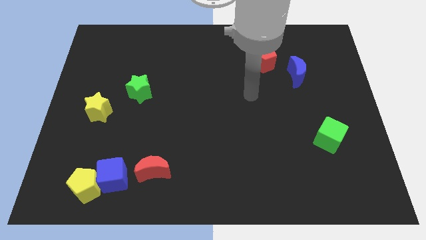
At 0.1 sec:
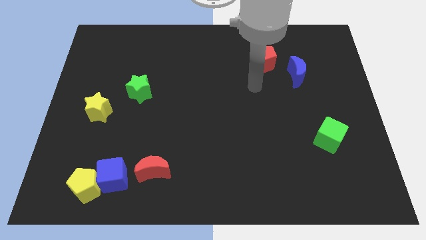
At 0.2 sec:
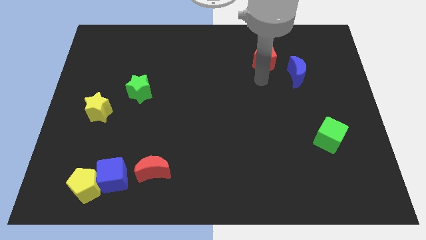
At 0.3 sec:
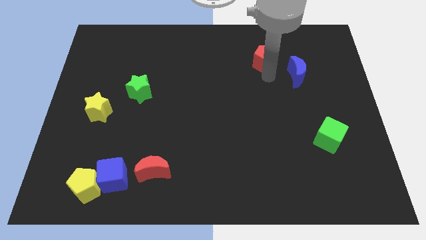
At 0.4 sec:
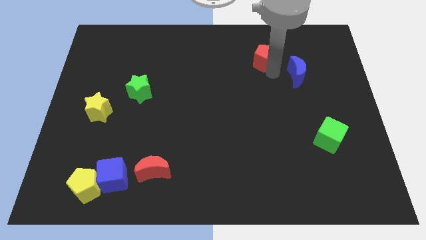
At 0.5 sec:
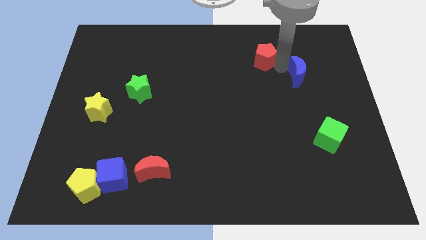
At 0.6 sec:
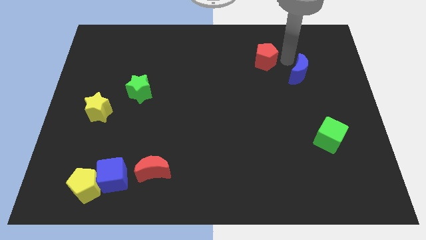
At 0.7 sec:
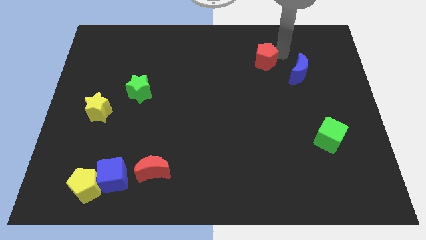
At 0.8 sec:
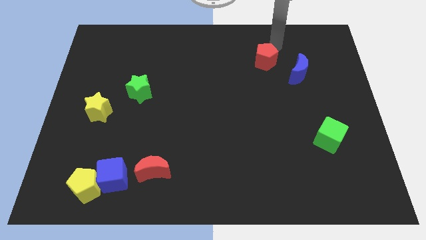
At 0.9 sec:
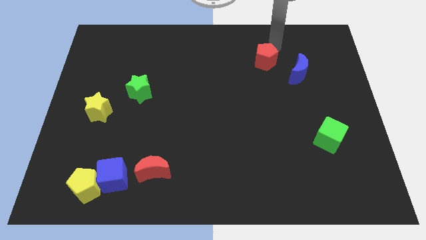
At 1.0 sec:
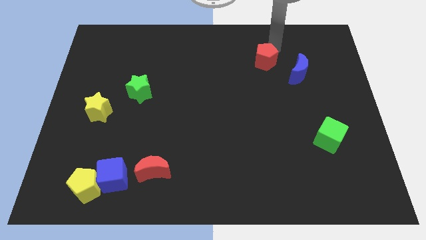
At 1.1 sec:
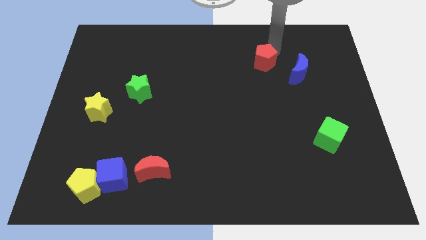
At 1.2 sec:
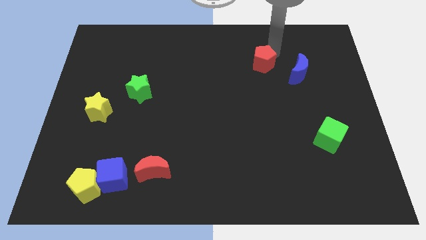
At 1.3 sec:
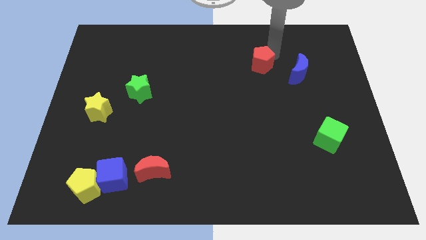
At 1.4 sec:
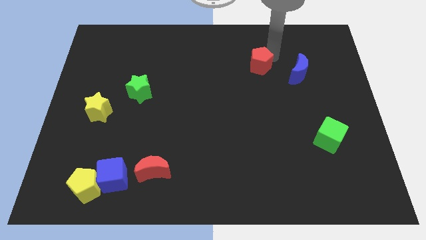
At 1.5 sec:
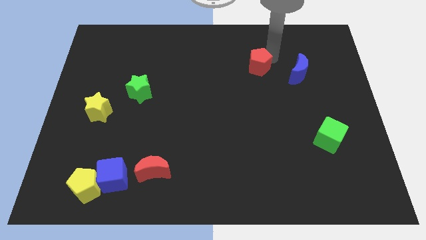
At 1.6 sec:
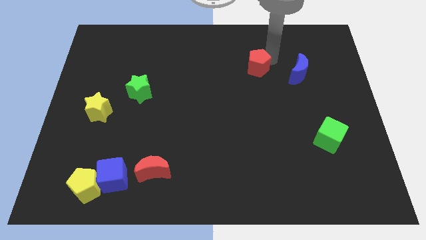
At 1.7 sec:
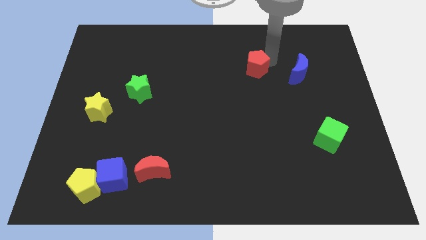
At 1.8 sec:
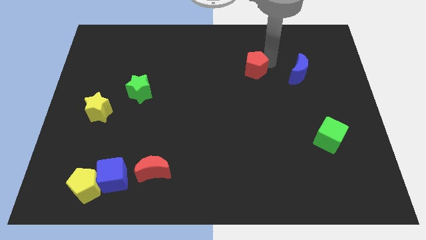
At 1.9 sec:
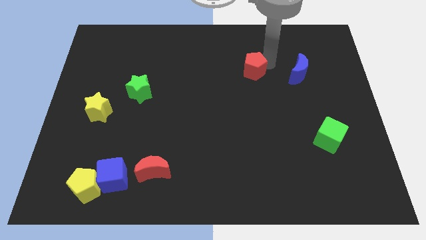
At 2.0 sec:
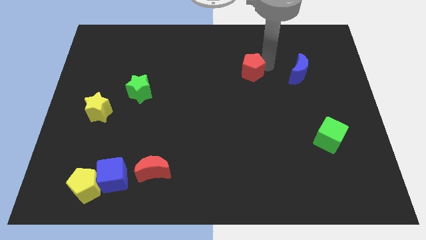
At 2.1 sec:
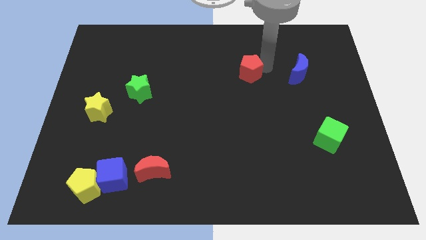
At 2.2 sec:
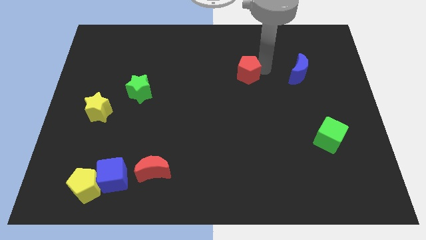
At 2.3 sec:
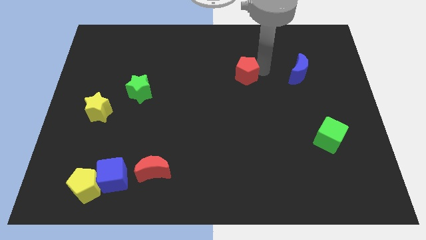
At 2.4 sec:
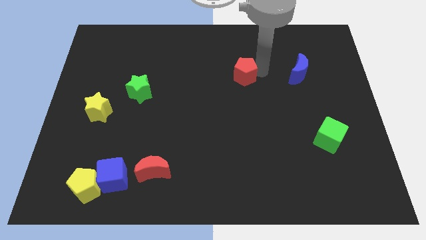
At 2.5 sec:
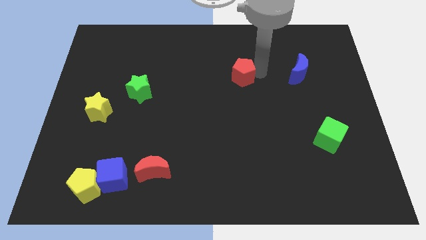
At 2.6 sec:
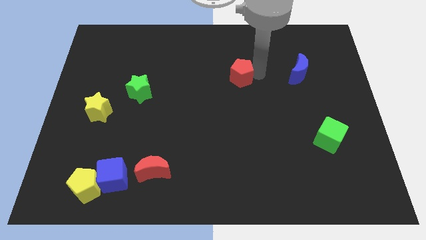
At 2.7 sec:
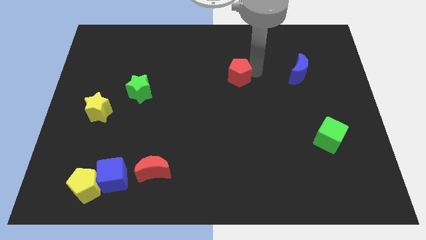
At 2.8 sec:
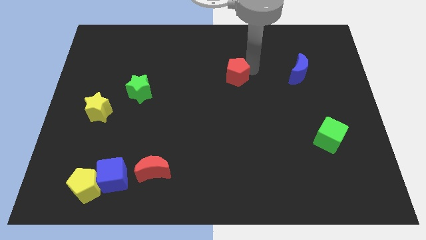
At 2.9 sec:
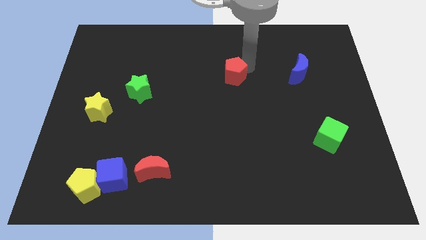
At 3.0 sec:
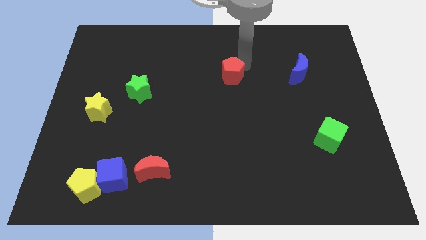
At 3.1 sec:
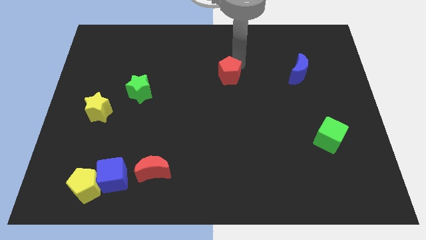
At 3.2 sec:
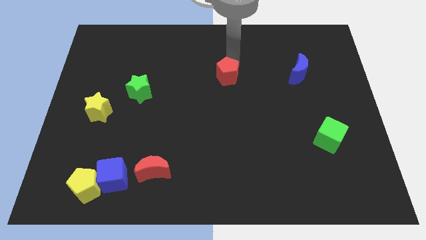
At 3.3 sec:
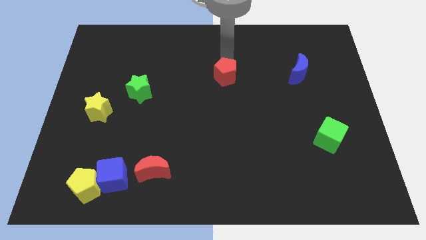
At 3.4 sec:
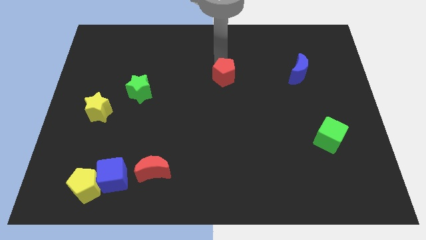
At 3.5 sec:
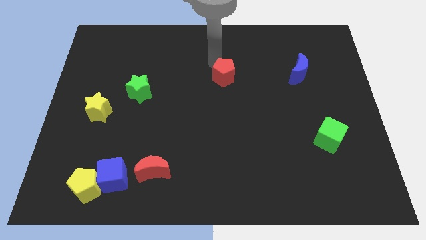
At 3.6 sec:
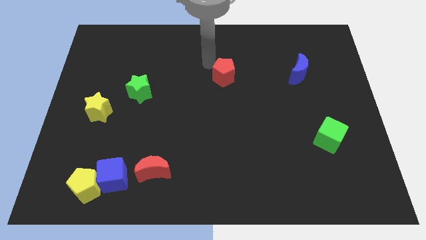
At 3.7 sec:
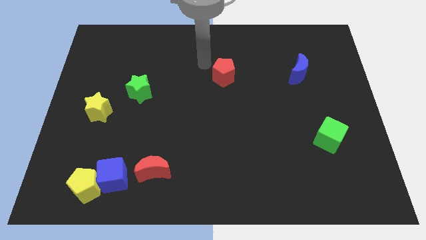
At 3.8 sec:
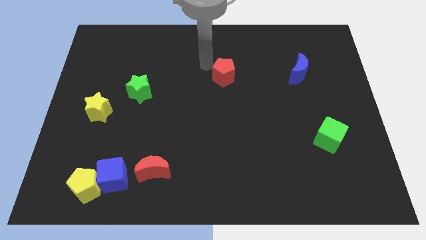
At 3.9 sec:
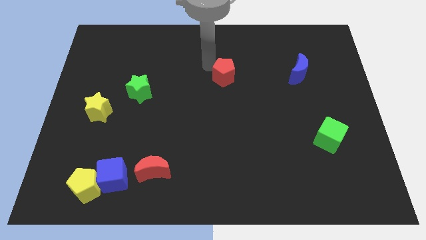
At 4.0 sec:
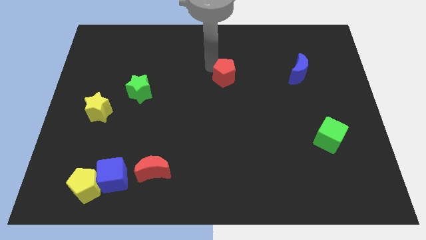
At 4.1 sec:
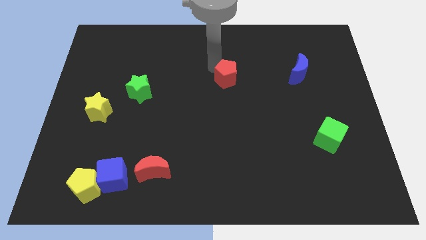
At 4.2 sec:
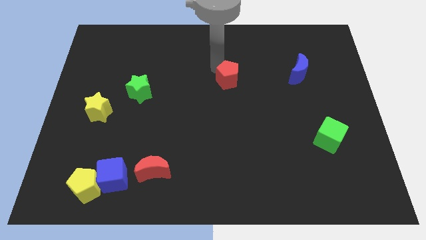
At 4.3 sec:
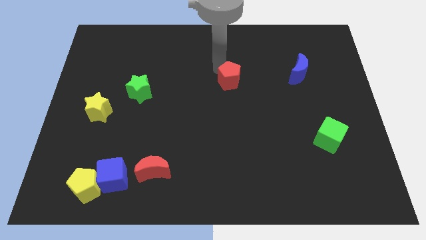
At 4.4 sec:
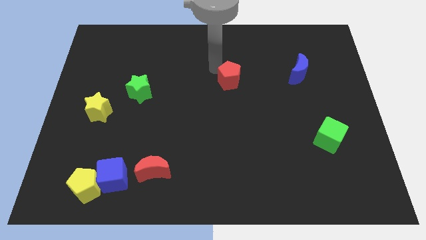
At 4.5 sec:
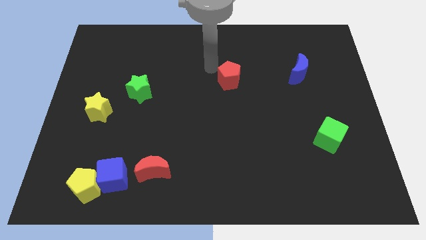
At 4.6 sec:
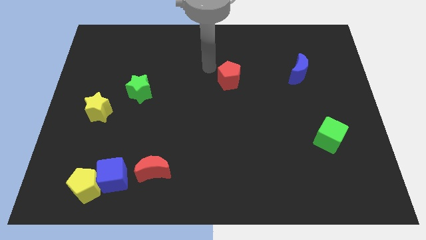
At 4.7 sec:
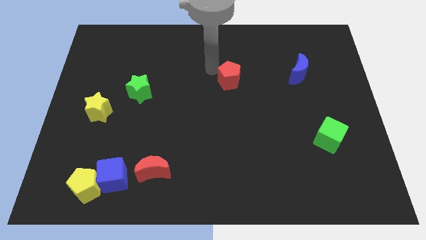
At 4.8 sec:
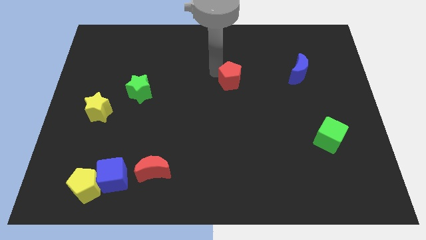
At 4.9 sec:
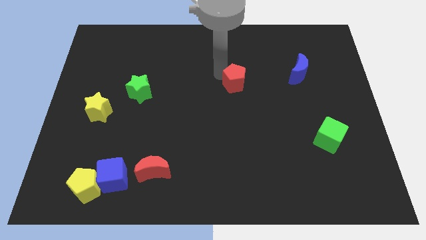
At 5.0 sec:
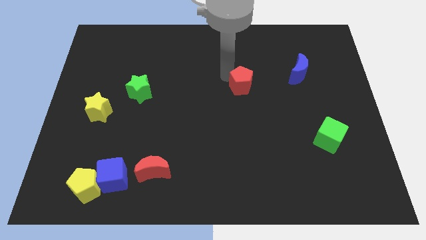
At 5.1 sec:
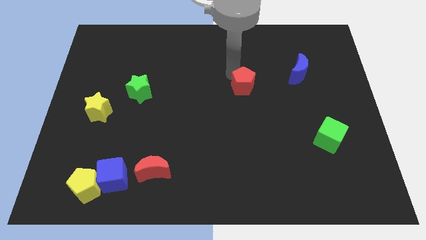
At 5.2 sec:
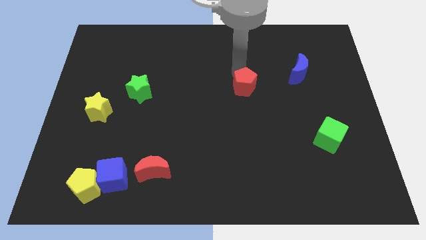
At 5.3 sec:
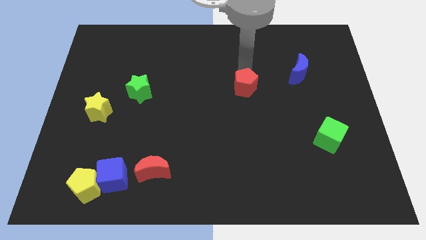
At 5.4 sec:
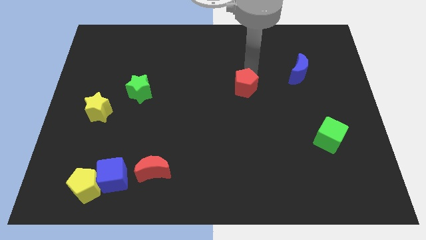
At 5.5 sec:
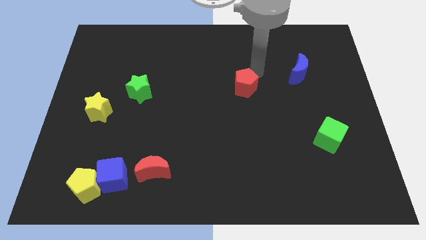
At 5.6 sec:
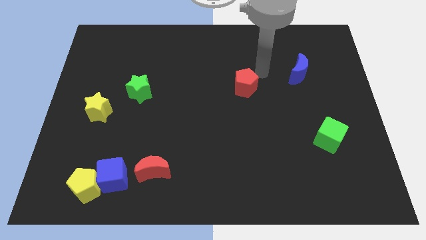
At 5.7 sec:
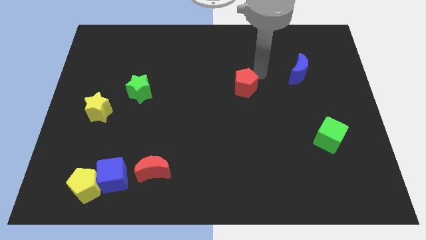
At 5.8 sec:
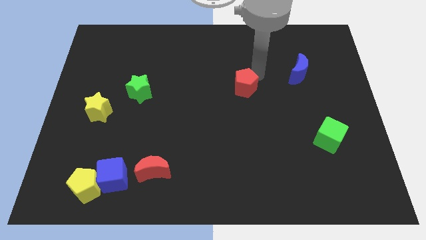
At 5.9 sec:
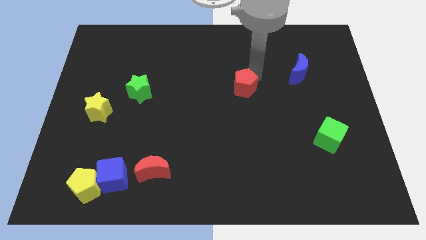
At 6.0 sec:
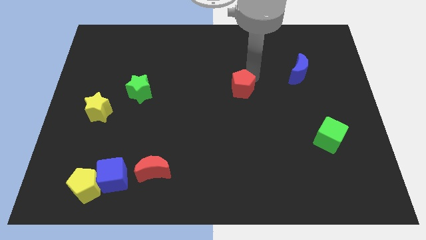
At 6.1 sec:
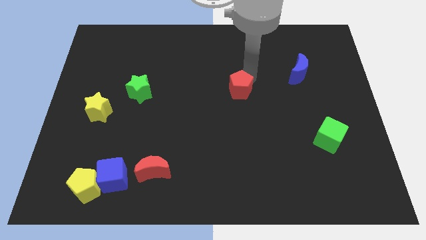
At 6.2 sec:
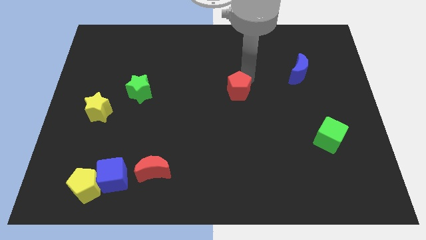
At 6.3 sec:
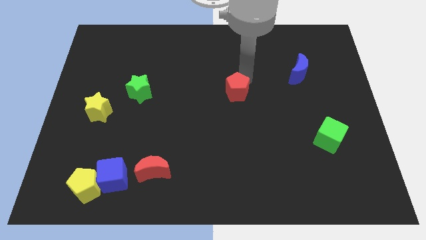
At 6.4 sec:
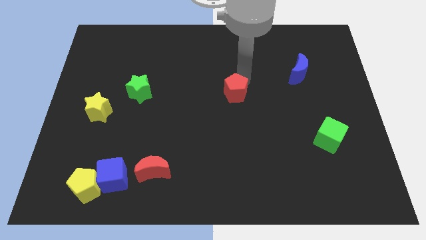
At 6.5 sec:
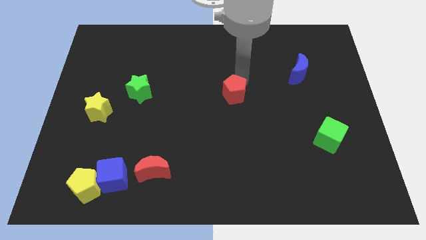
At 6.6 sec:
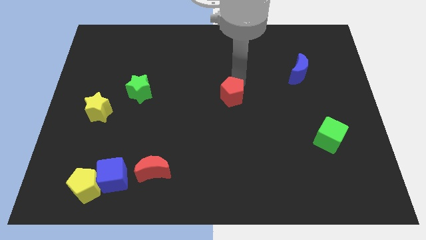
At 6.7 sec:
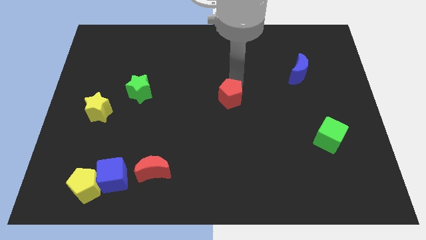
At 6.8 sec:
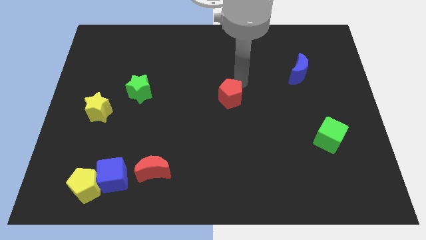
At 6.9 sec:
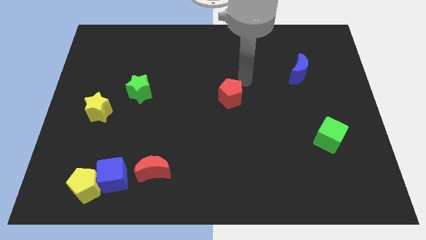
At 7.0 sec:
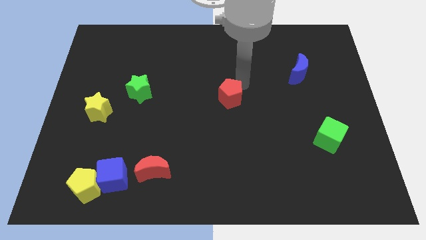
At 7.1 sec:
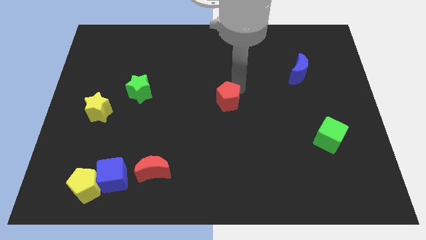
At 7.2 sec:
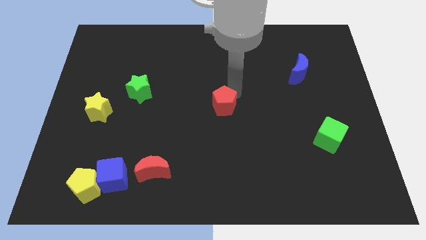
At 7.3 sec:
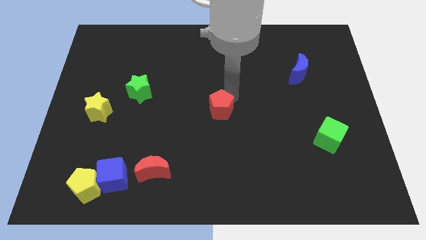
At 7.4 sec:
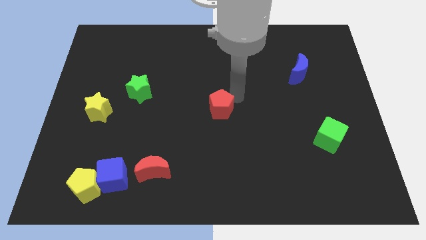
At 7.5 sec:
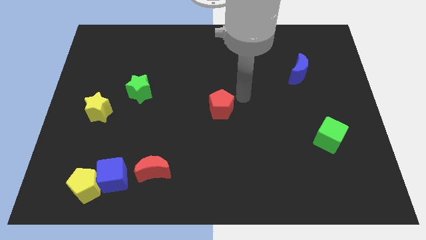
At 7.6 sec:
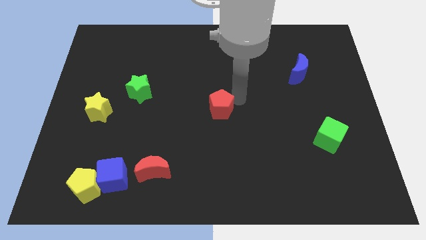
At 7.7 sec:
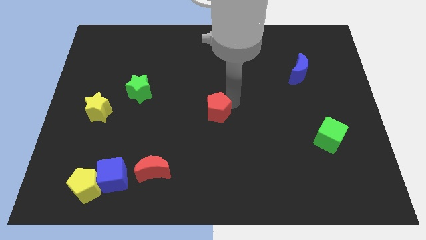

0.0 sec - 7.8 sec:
move the red pentagon downwards and left

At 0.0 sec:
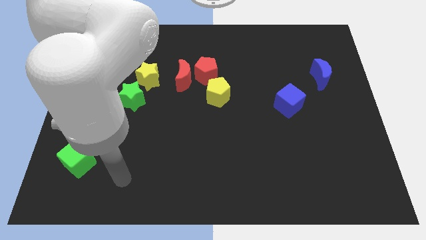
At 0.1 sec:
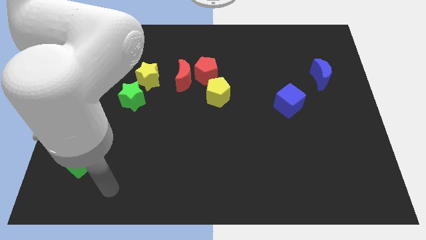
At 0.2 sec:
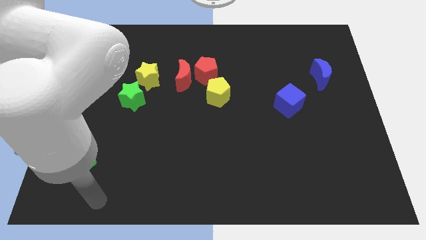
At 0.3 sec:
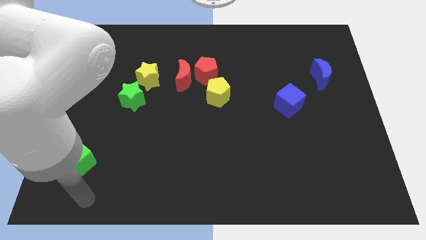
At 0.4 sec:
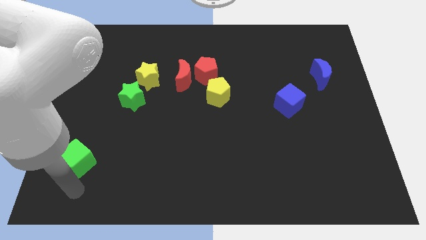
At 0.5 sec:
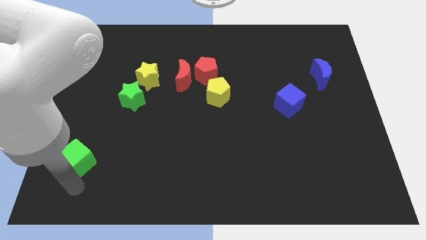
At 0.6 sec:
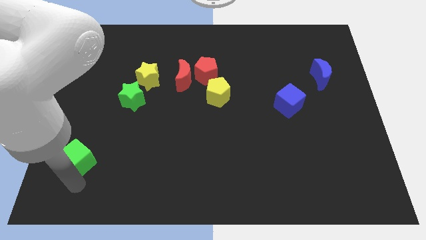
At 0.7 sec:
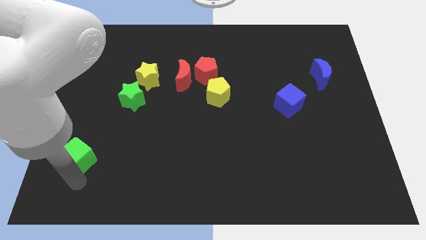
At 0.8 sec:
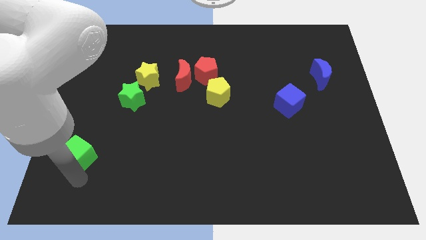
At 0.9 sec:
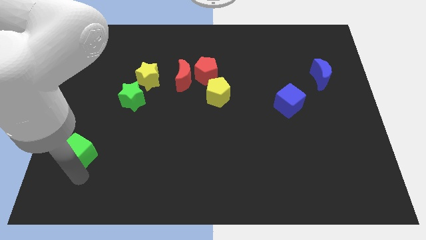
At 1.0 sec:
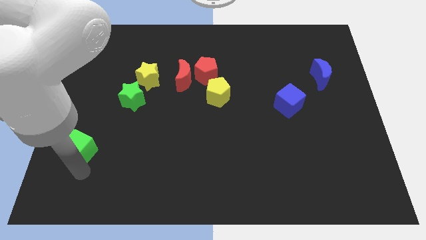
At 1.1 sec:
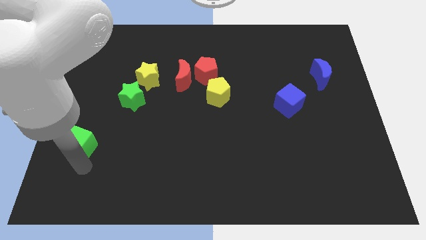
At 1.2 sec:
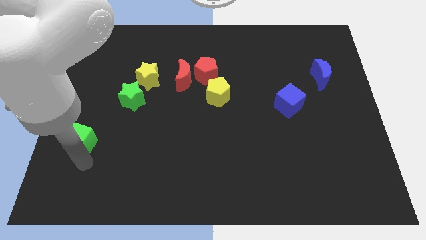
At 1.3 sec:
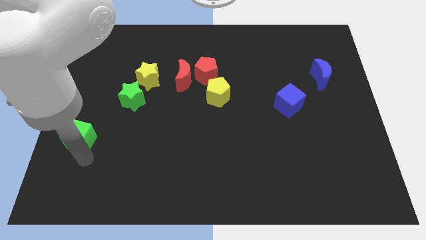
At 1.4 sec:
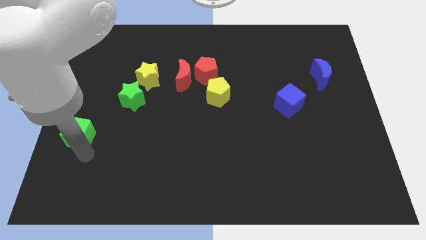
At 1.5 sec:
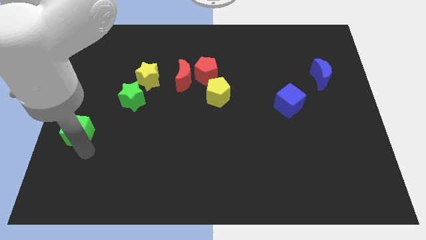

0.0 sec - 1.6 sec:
slide the green cube a little upwards
